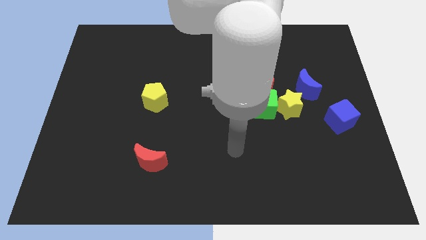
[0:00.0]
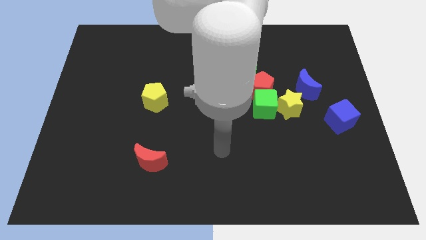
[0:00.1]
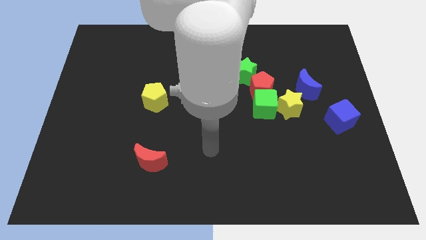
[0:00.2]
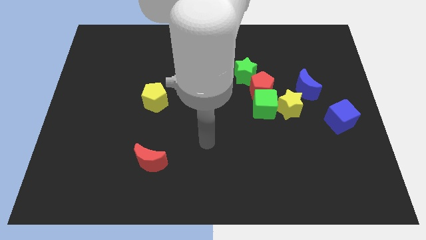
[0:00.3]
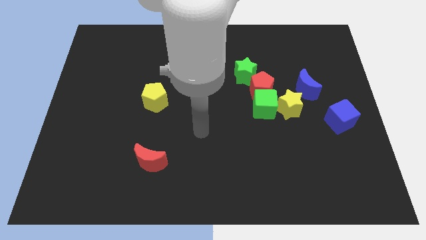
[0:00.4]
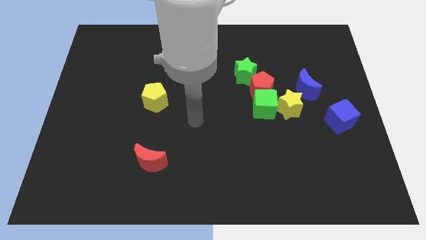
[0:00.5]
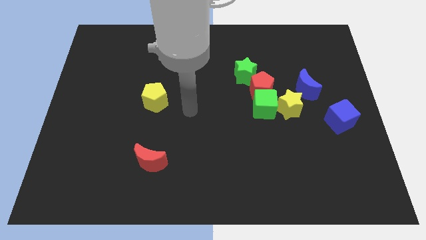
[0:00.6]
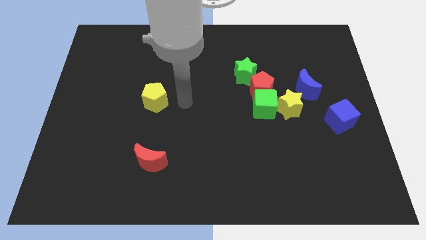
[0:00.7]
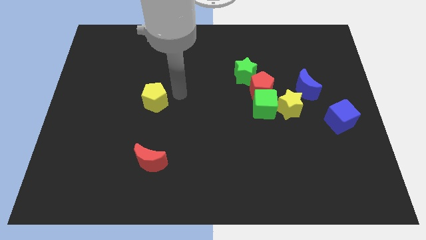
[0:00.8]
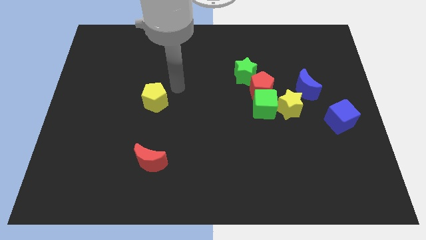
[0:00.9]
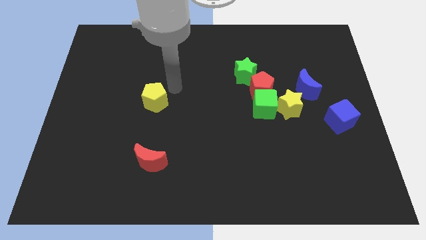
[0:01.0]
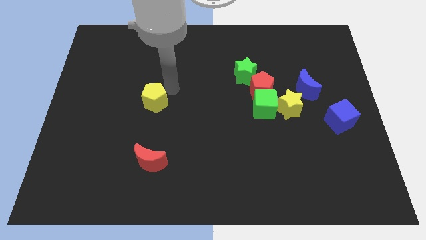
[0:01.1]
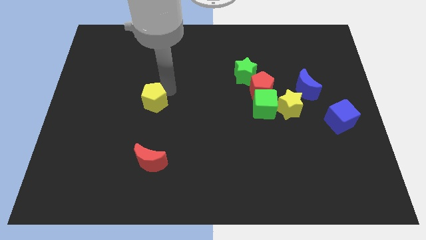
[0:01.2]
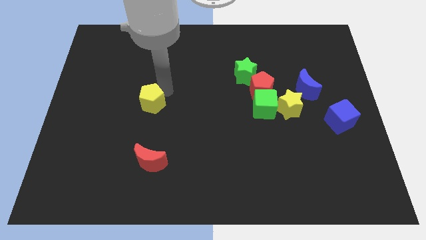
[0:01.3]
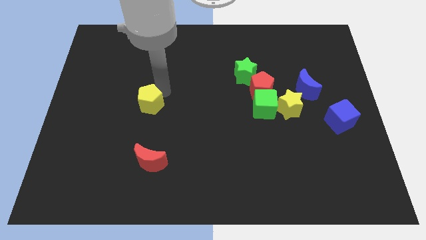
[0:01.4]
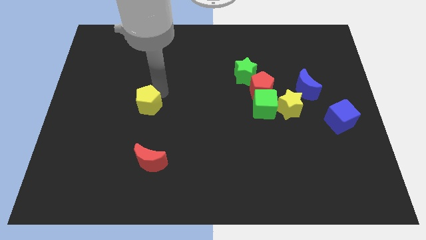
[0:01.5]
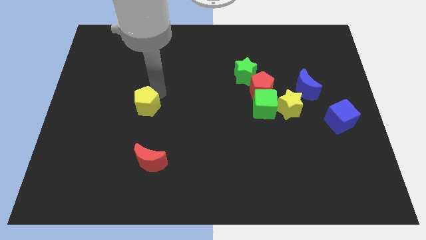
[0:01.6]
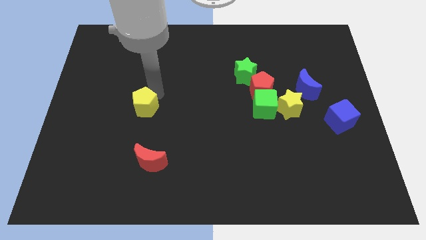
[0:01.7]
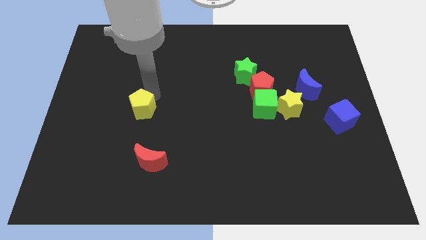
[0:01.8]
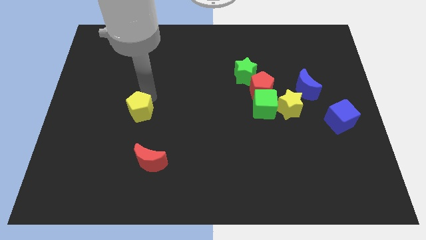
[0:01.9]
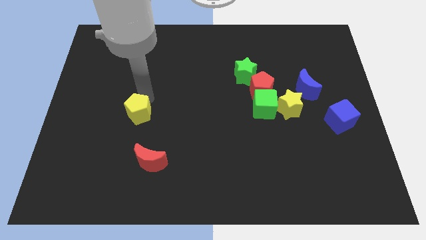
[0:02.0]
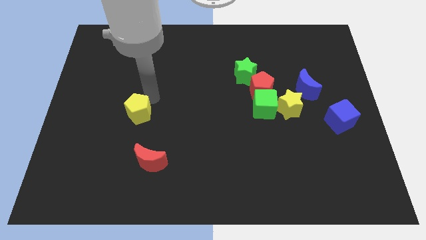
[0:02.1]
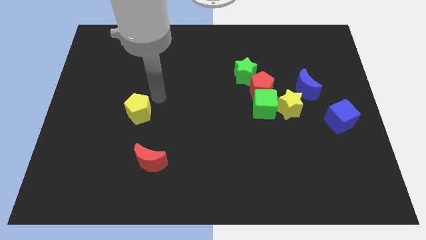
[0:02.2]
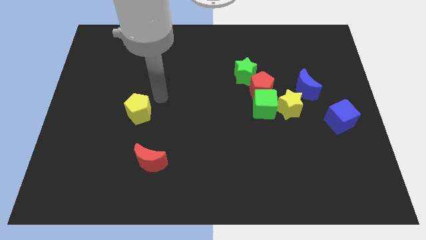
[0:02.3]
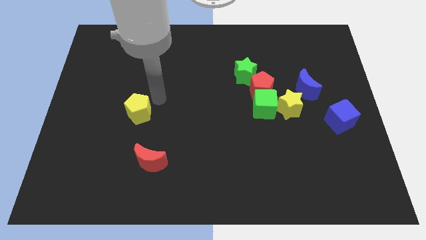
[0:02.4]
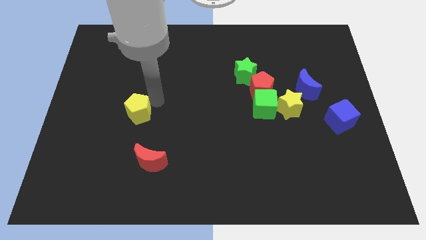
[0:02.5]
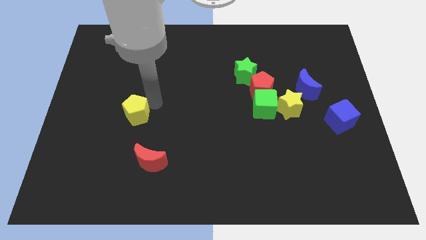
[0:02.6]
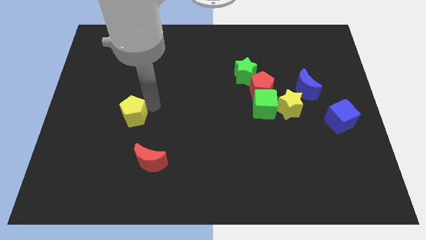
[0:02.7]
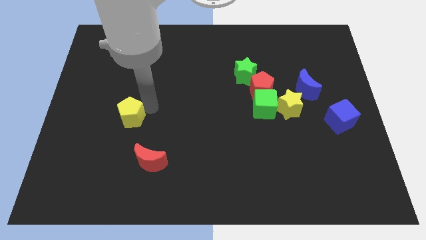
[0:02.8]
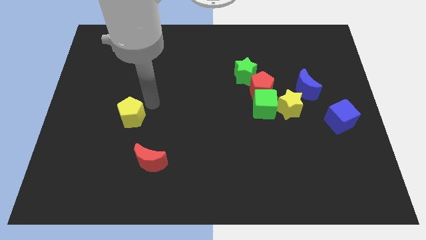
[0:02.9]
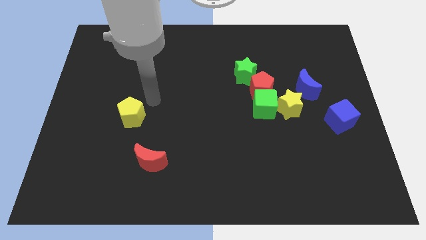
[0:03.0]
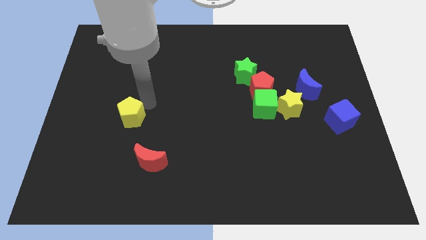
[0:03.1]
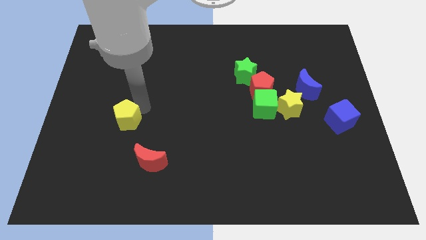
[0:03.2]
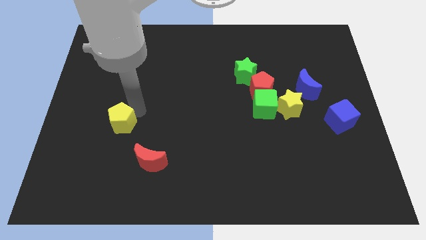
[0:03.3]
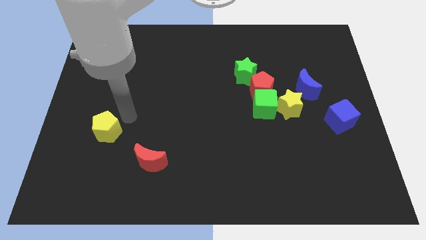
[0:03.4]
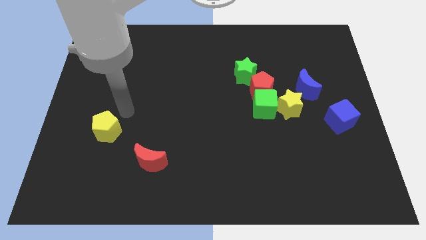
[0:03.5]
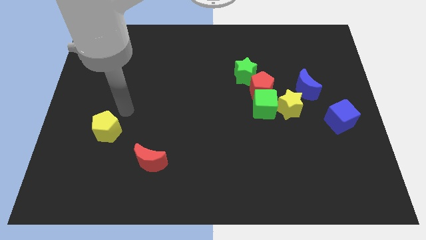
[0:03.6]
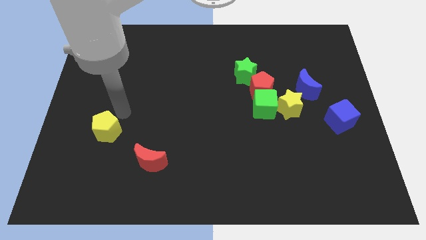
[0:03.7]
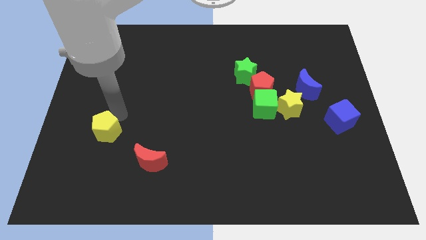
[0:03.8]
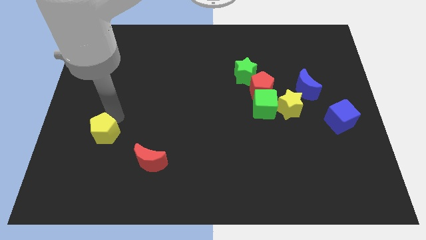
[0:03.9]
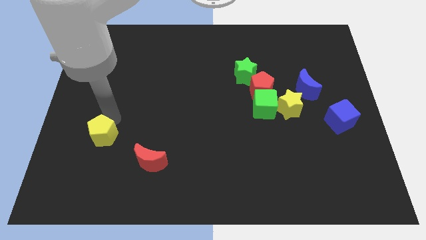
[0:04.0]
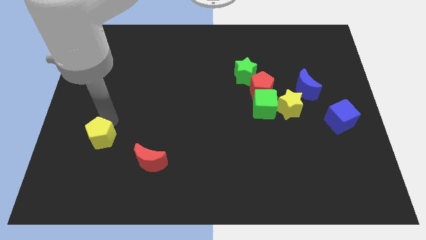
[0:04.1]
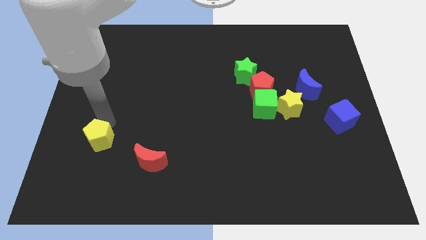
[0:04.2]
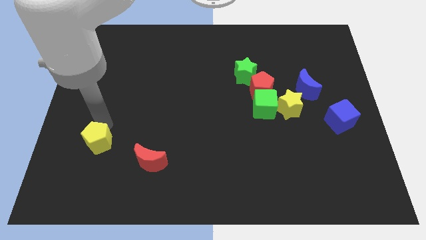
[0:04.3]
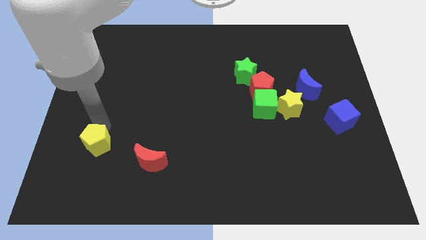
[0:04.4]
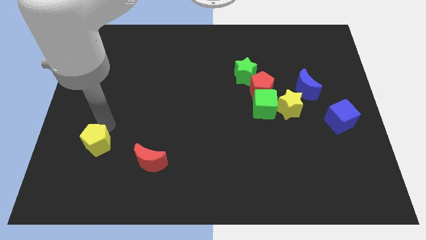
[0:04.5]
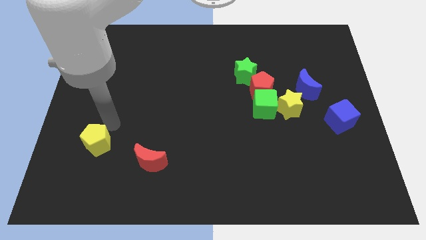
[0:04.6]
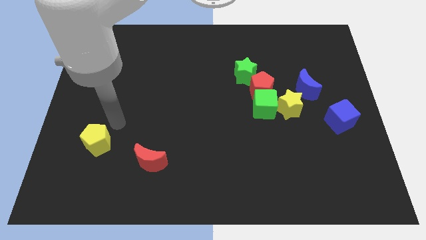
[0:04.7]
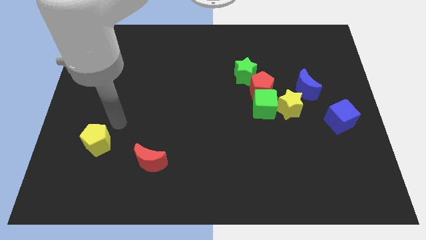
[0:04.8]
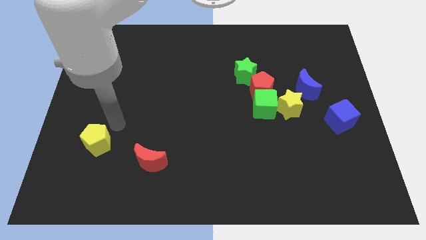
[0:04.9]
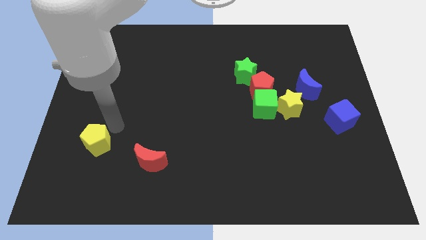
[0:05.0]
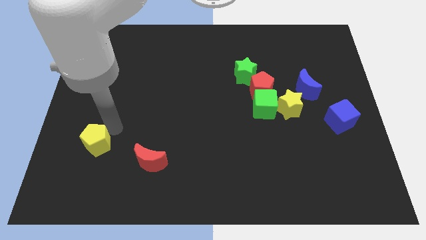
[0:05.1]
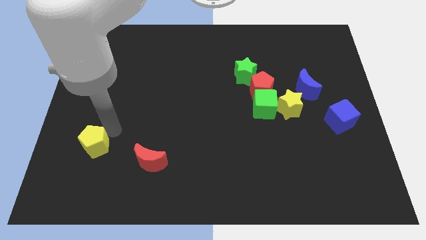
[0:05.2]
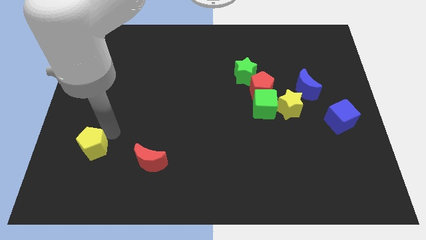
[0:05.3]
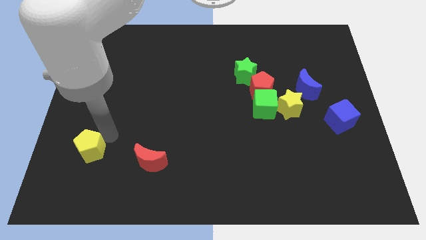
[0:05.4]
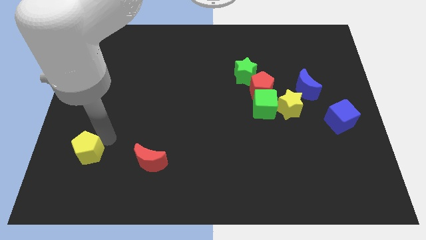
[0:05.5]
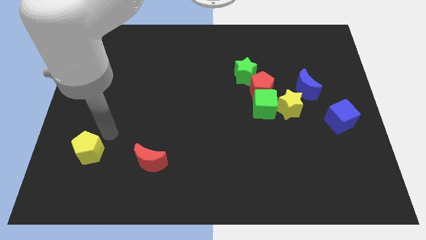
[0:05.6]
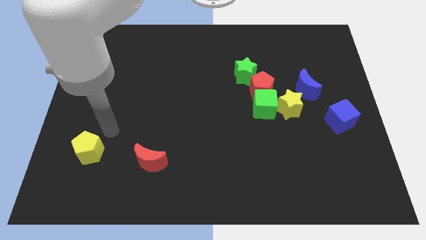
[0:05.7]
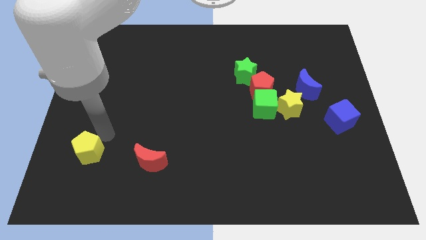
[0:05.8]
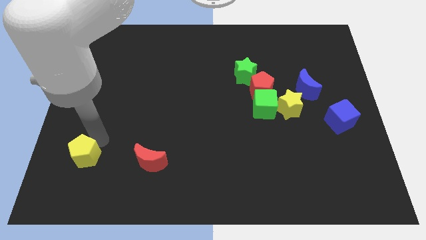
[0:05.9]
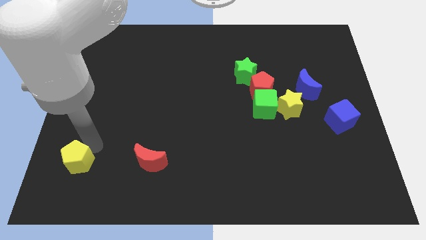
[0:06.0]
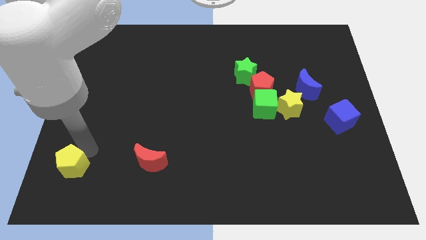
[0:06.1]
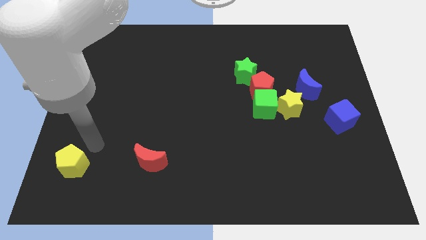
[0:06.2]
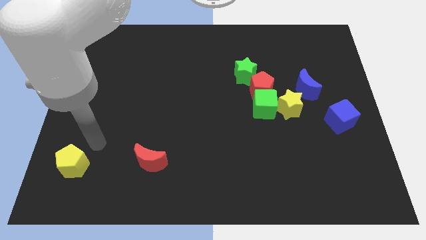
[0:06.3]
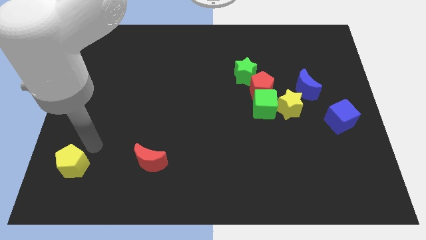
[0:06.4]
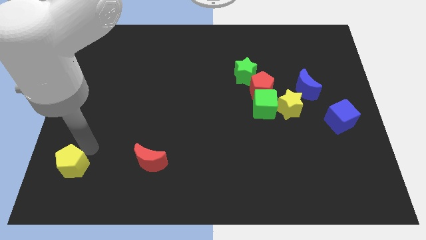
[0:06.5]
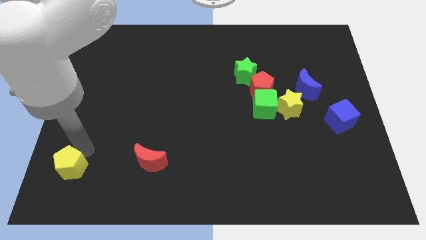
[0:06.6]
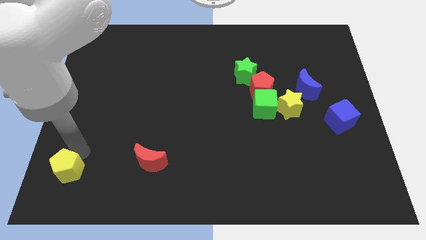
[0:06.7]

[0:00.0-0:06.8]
slide the yellow pentagon to the lower left corner
